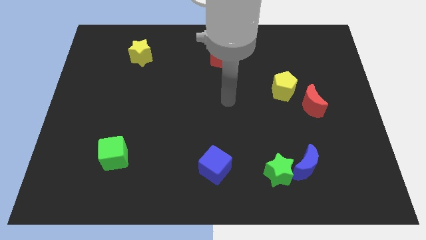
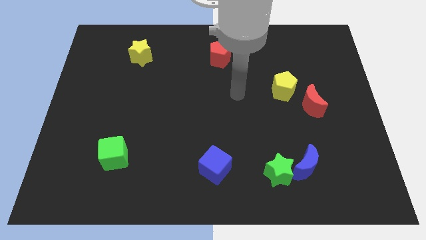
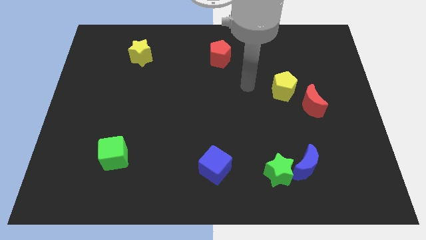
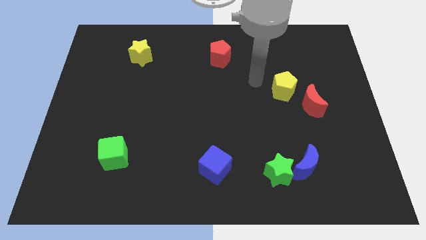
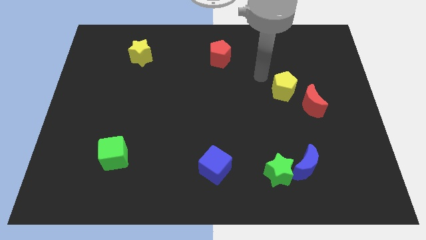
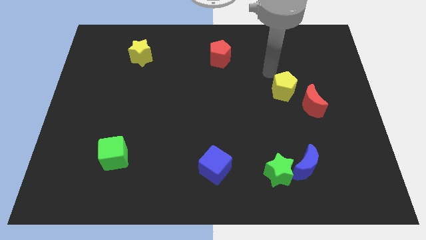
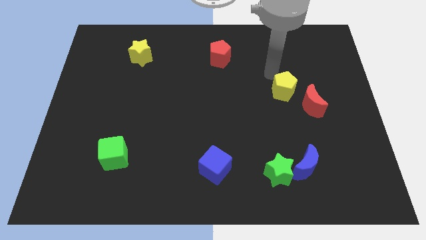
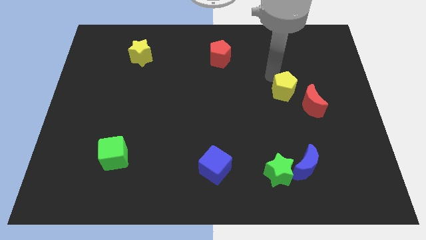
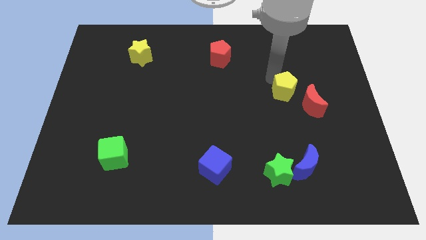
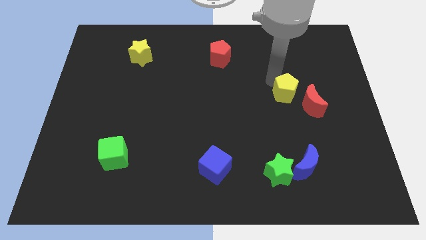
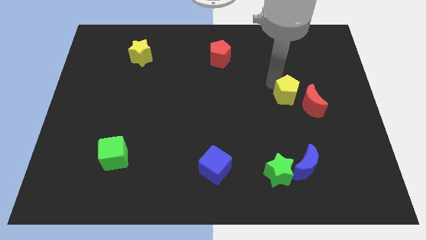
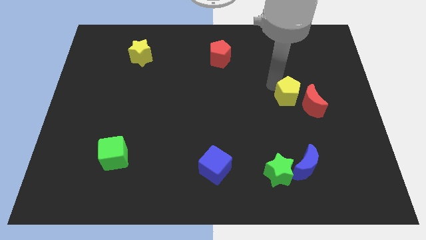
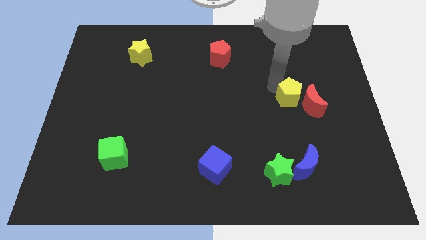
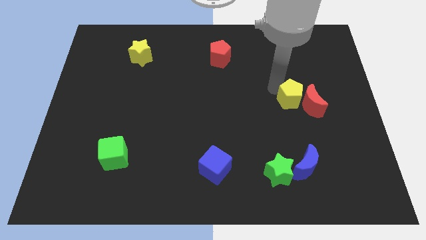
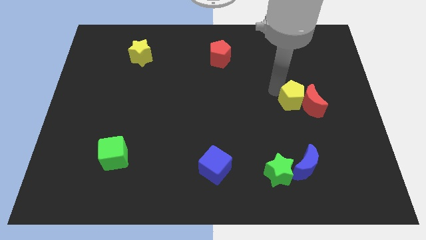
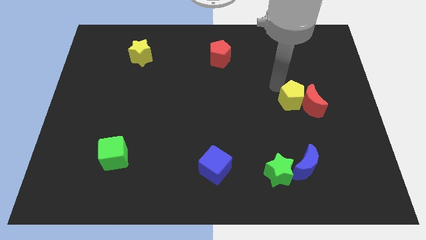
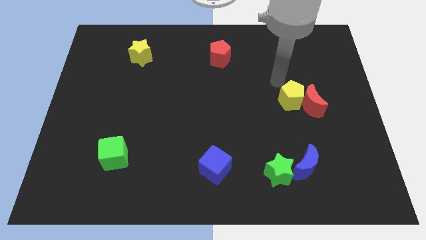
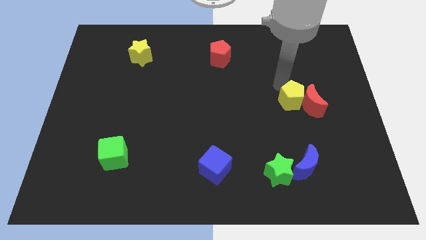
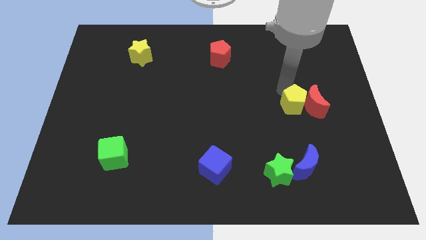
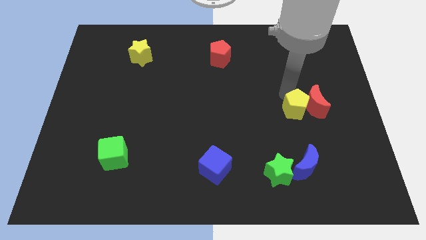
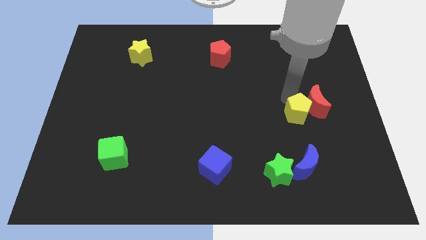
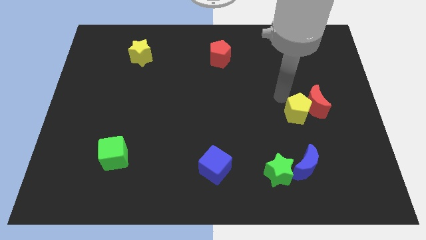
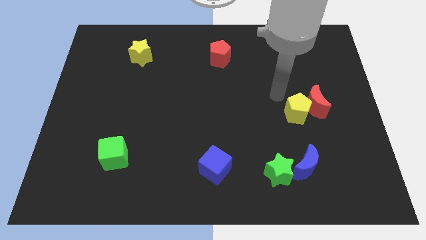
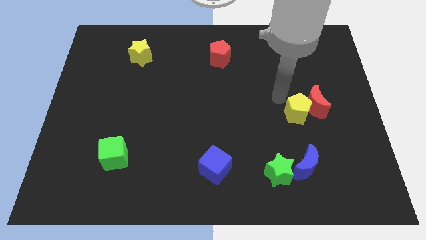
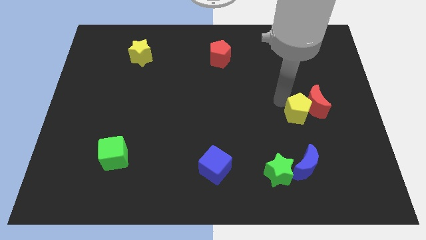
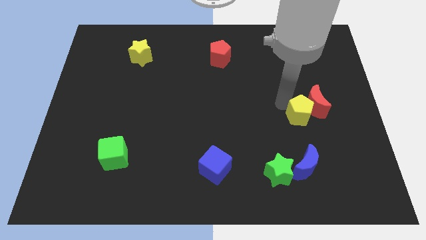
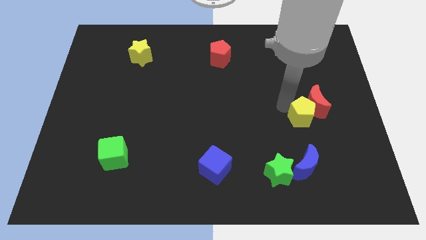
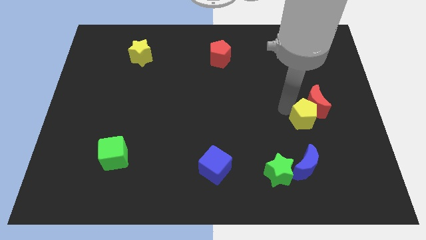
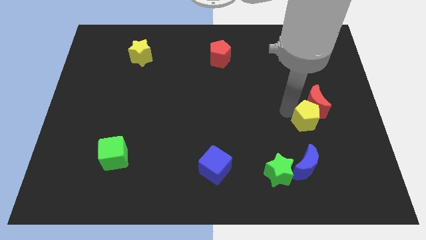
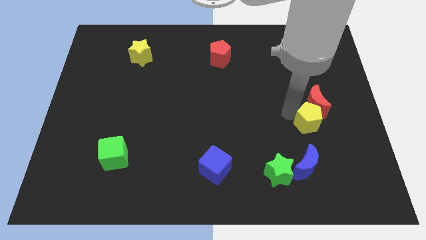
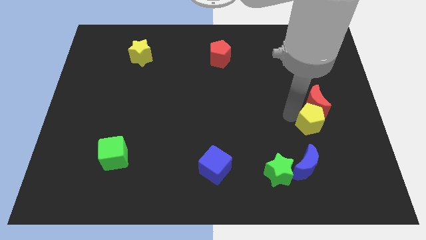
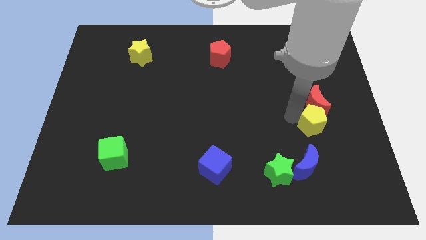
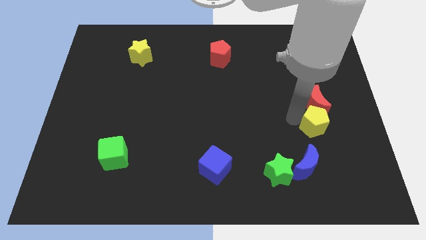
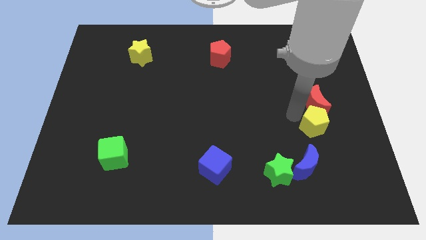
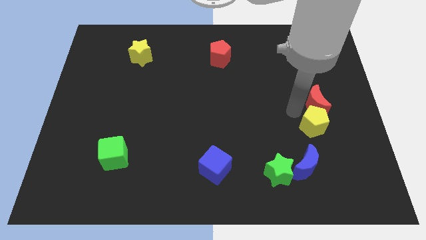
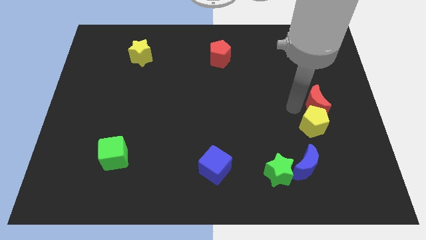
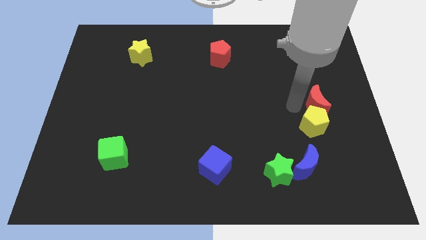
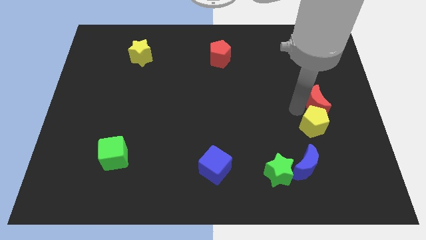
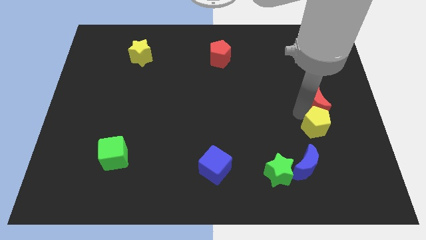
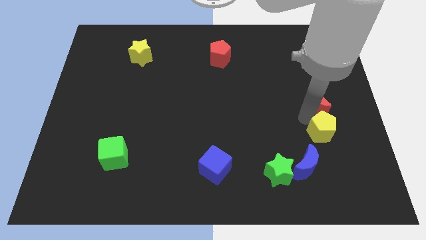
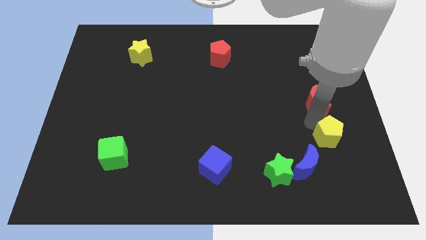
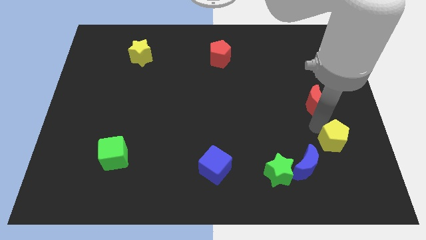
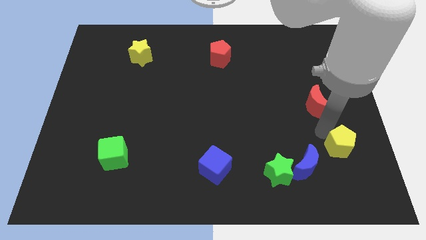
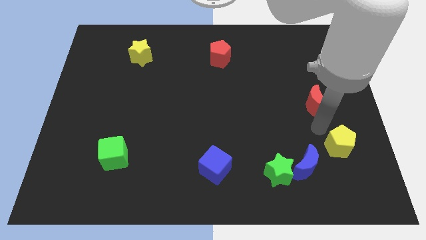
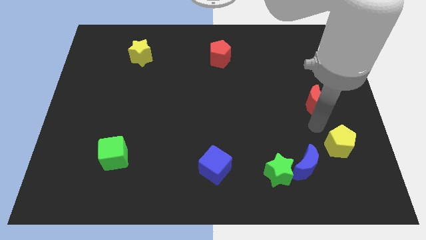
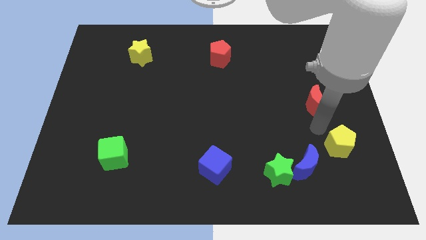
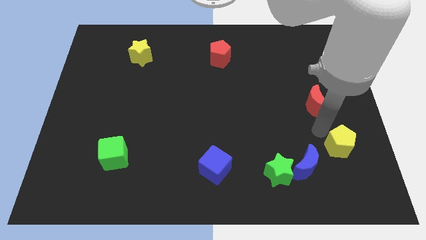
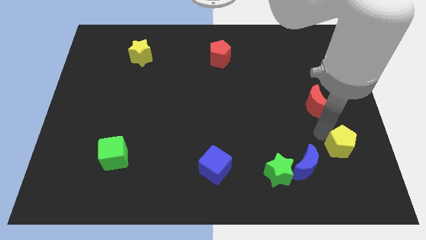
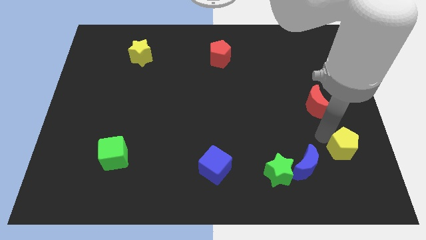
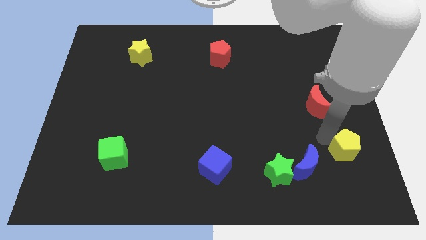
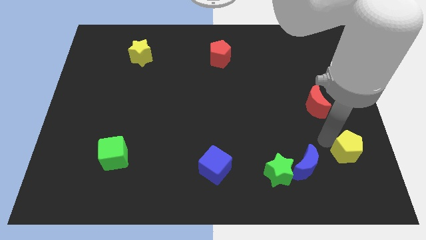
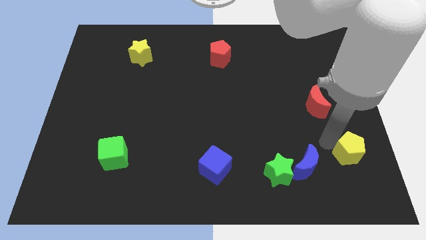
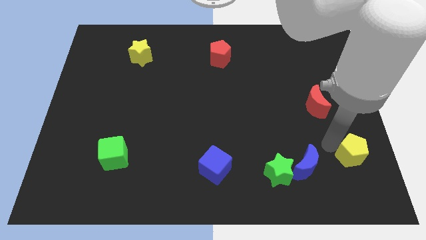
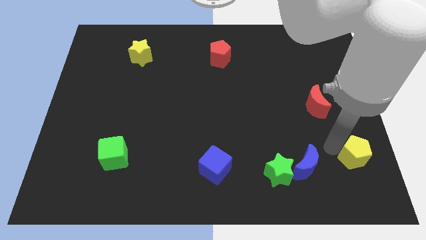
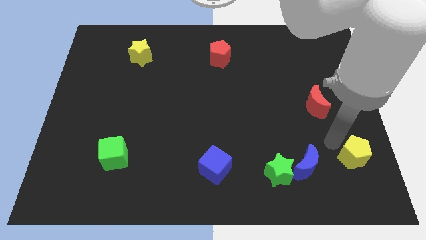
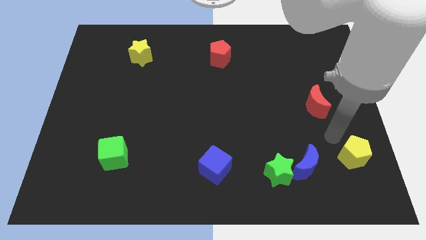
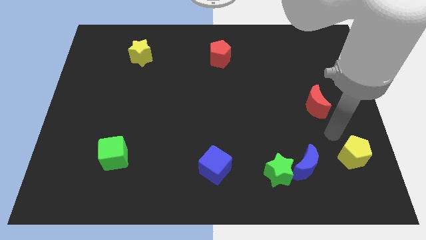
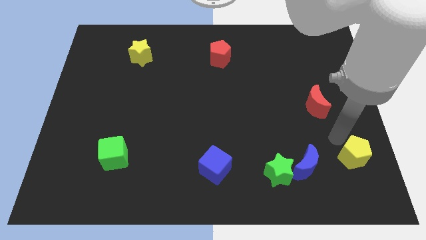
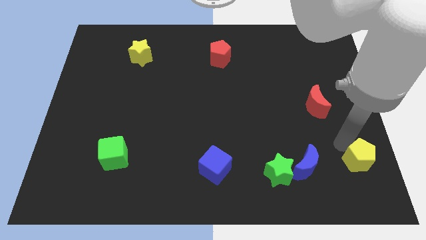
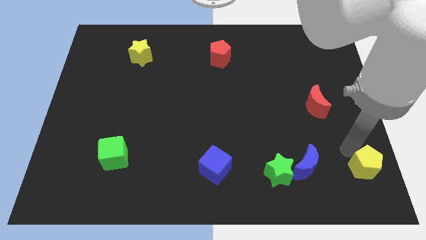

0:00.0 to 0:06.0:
slide the yellow pentagon to the lower right corner

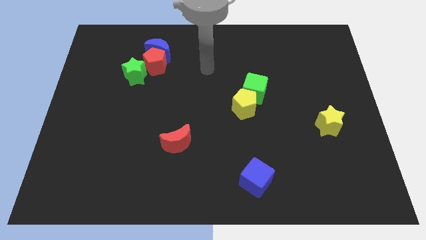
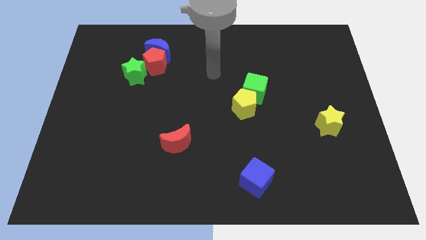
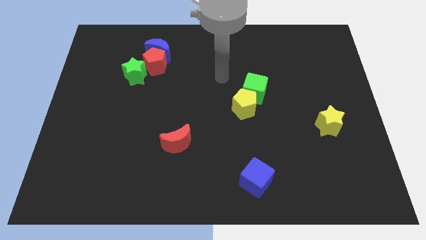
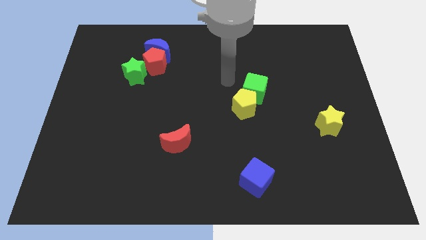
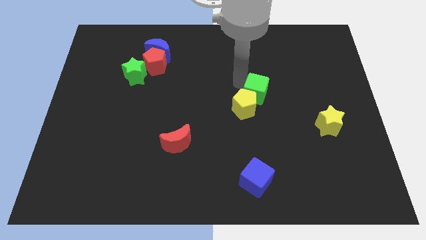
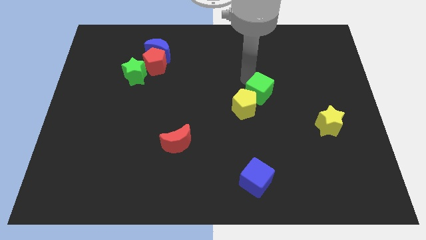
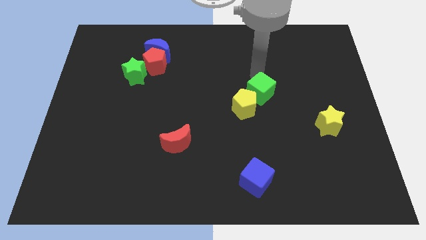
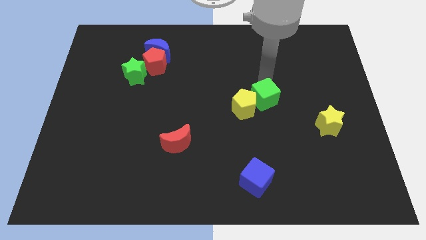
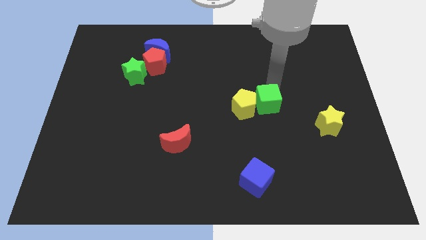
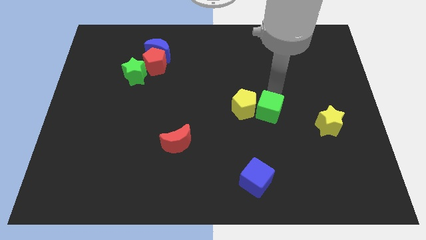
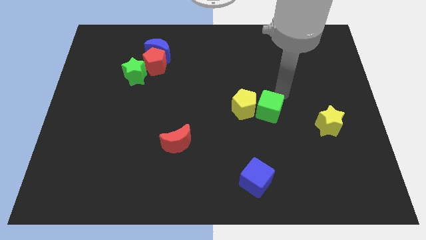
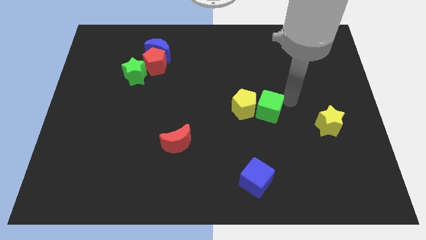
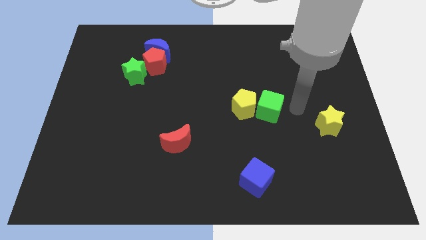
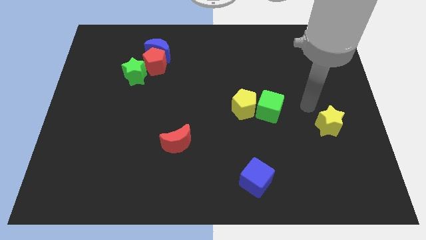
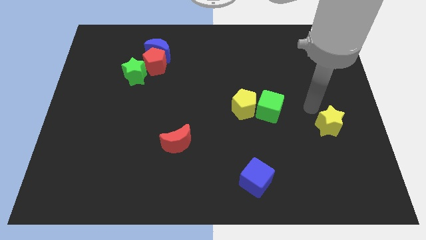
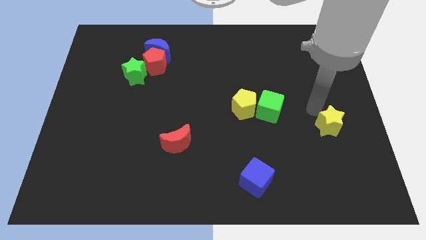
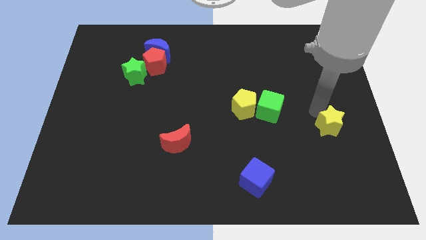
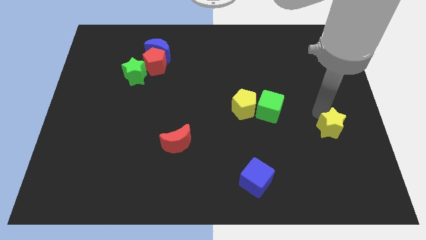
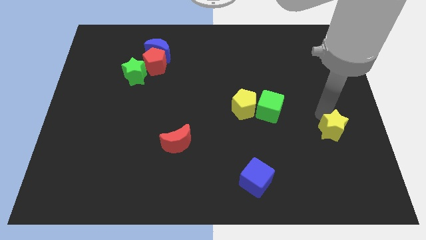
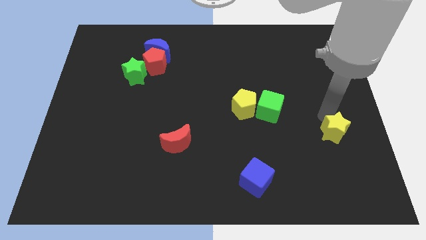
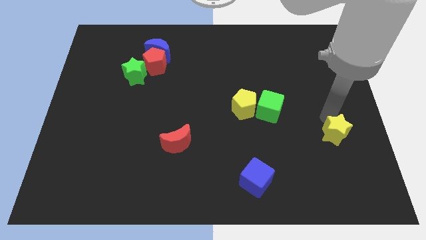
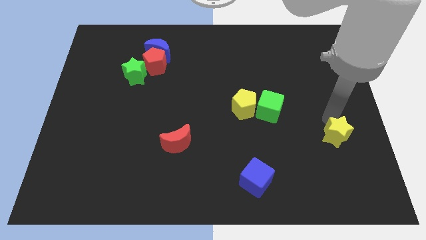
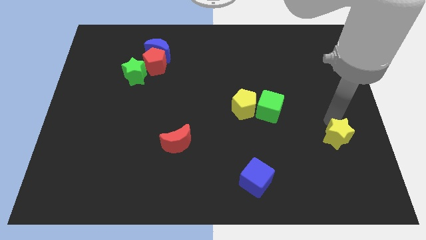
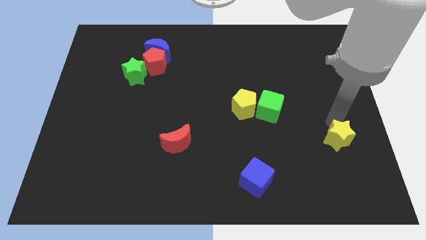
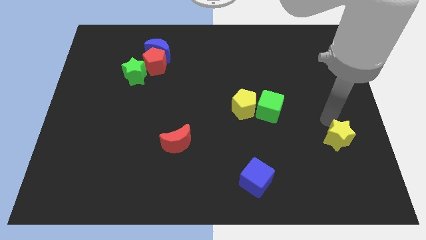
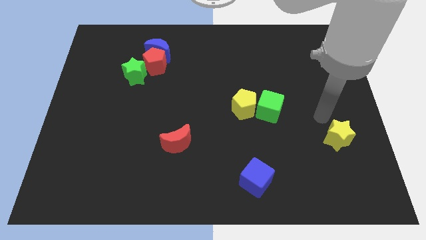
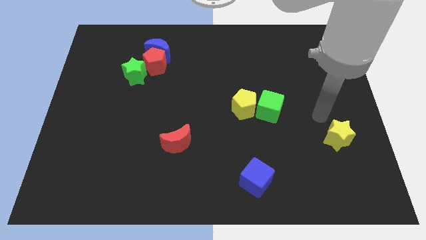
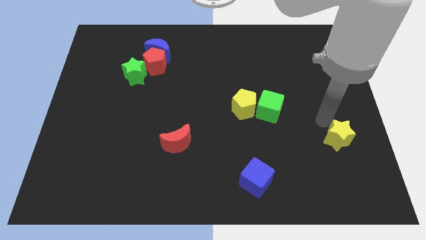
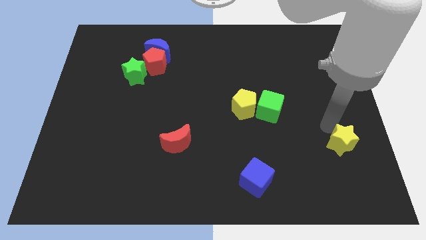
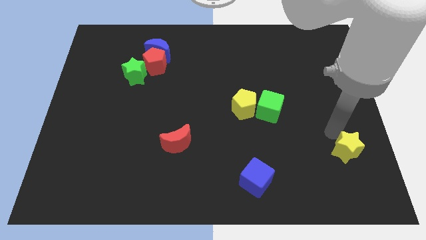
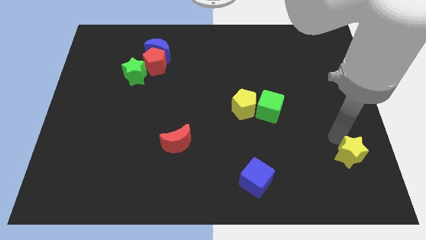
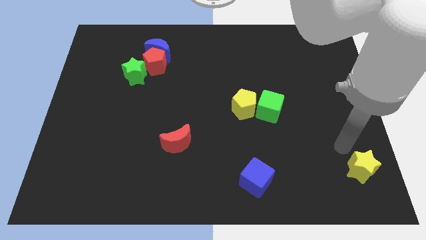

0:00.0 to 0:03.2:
slide the yellow star to the bottom right corner
